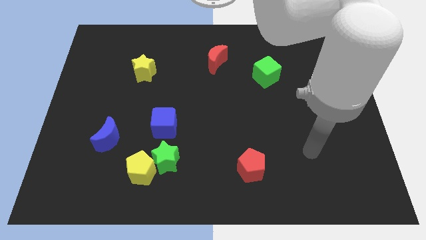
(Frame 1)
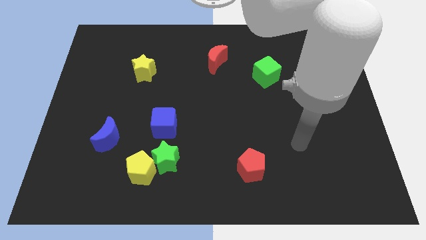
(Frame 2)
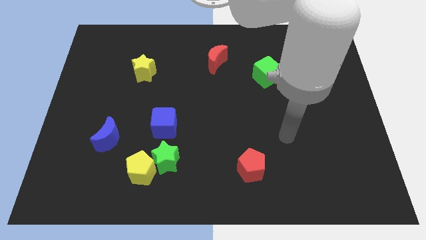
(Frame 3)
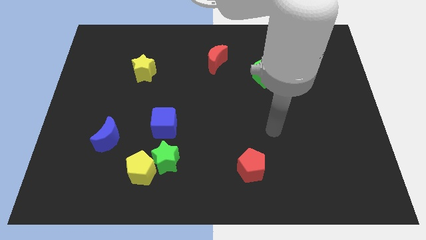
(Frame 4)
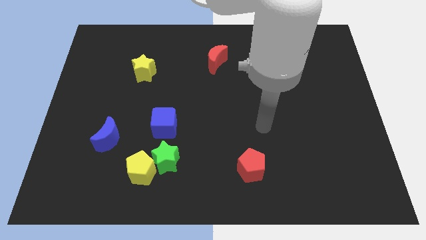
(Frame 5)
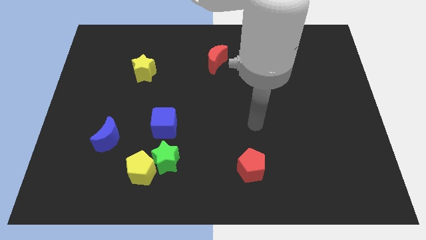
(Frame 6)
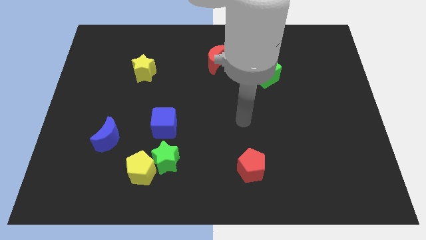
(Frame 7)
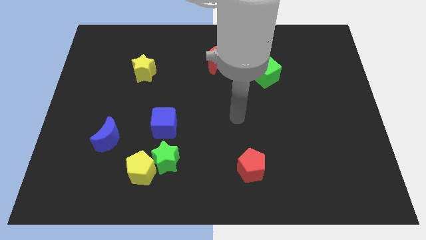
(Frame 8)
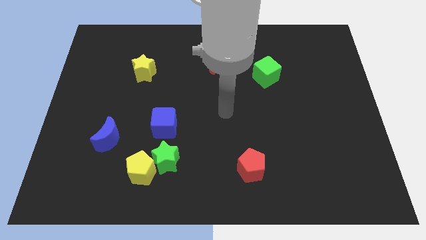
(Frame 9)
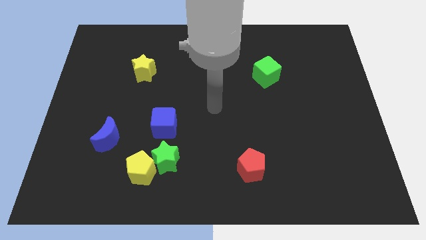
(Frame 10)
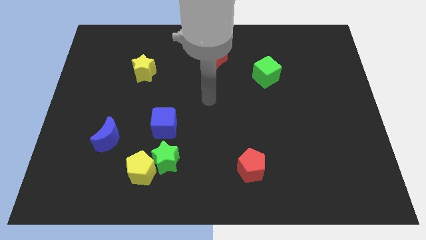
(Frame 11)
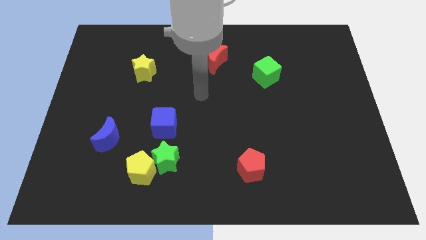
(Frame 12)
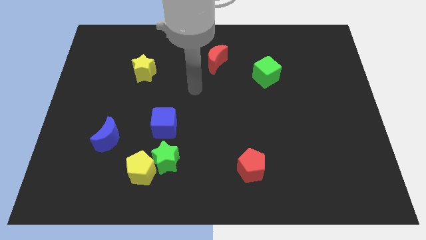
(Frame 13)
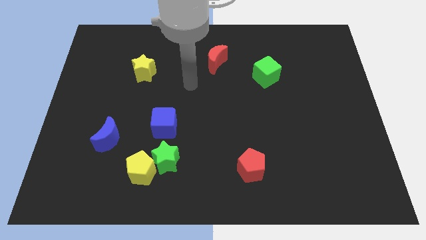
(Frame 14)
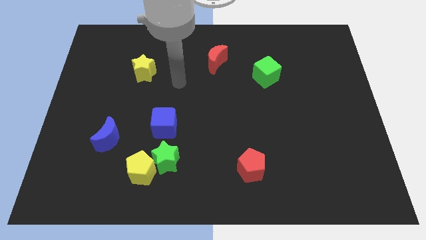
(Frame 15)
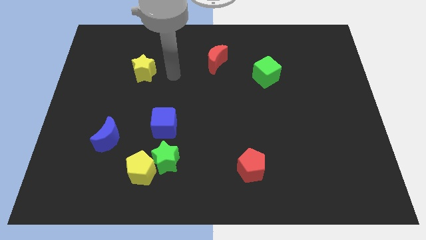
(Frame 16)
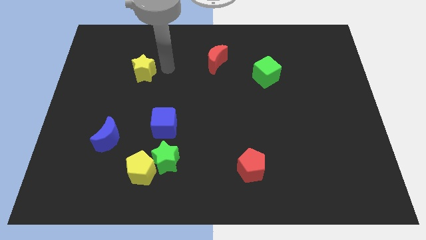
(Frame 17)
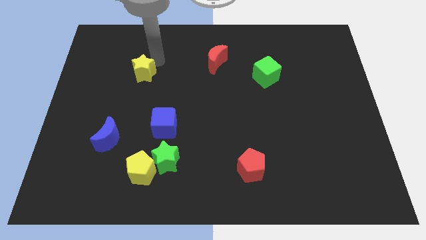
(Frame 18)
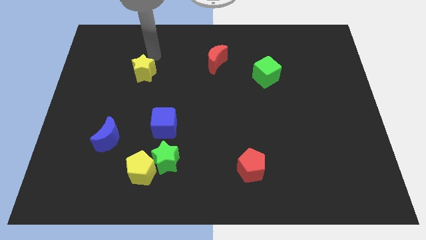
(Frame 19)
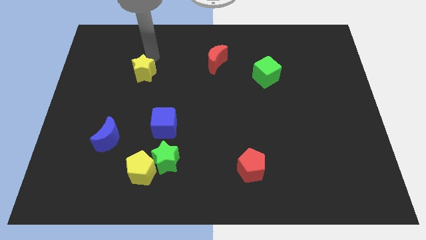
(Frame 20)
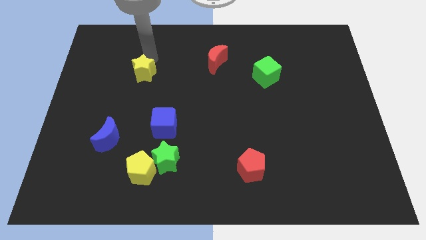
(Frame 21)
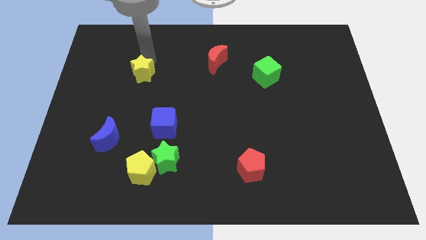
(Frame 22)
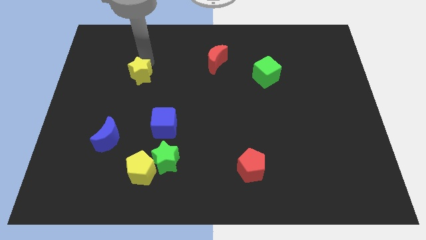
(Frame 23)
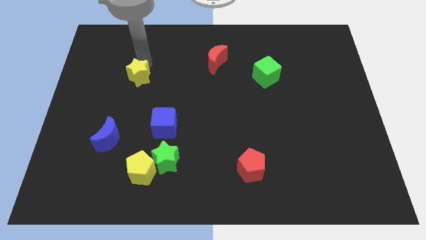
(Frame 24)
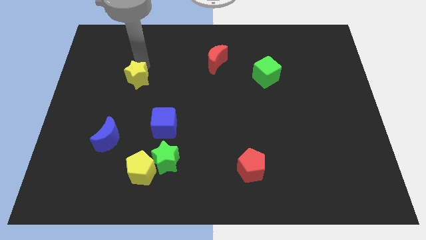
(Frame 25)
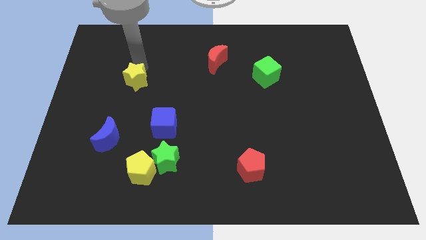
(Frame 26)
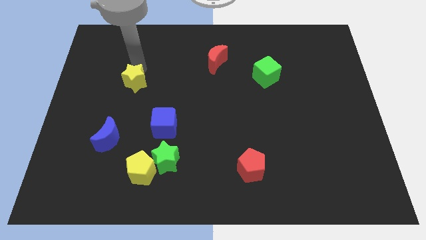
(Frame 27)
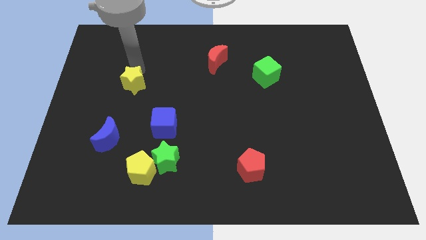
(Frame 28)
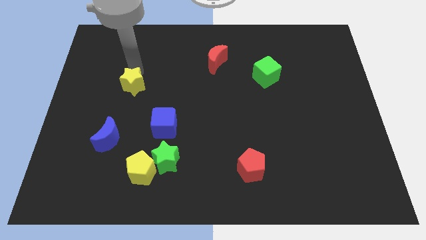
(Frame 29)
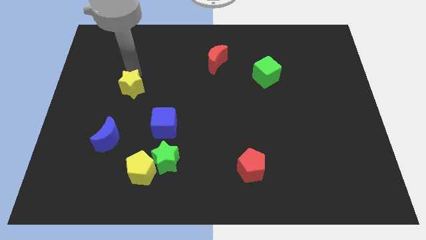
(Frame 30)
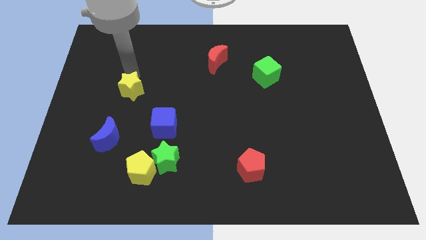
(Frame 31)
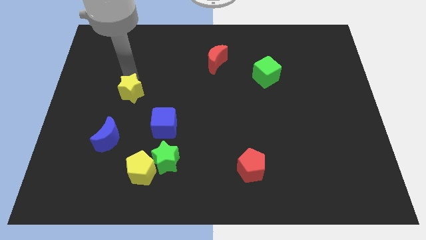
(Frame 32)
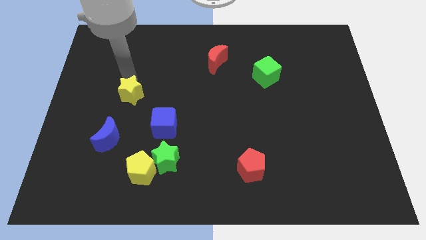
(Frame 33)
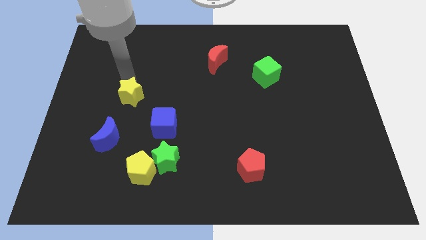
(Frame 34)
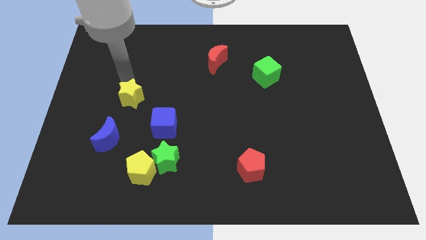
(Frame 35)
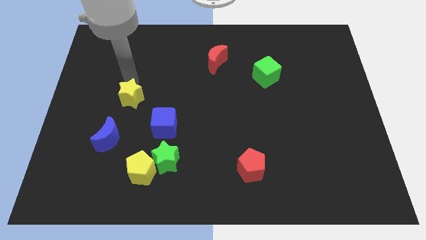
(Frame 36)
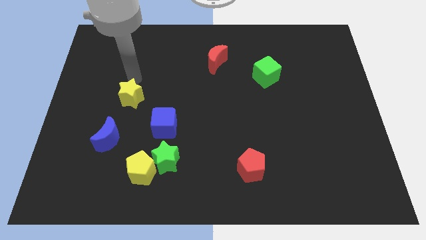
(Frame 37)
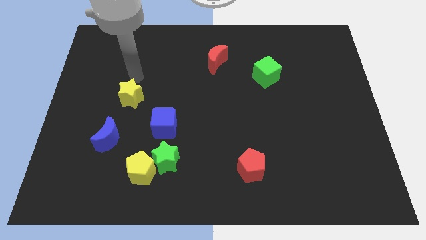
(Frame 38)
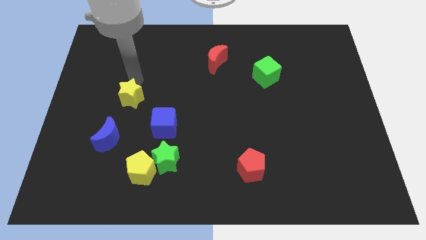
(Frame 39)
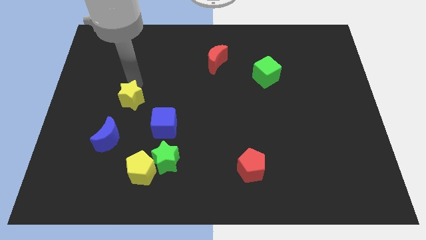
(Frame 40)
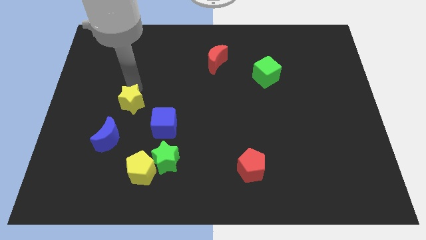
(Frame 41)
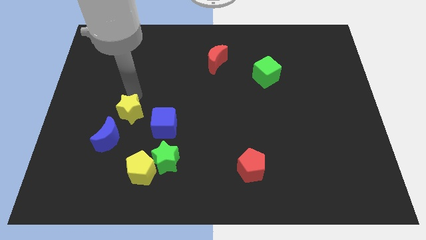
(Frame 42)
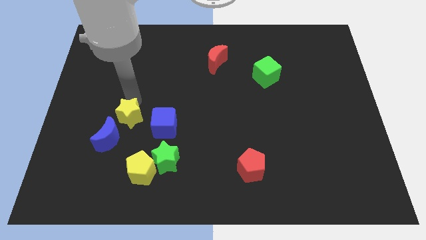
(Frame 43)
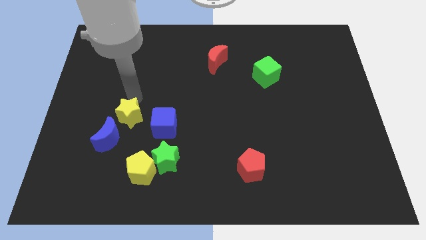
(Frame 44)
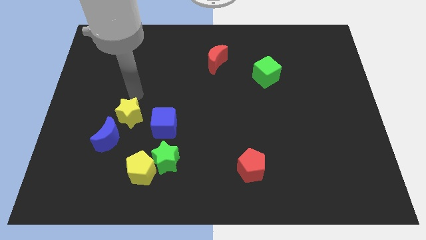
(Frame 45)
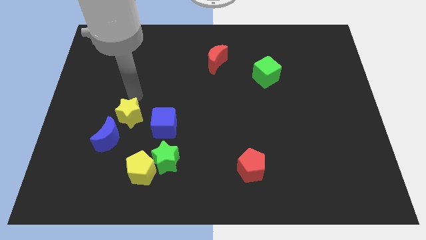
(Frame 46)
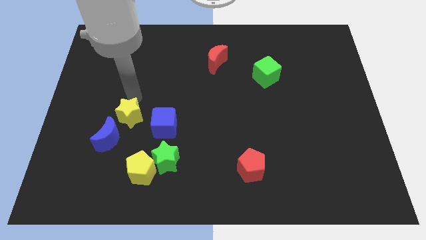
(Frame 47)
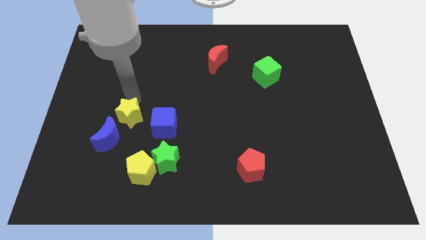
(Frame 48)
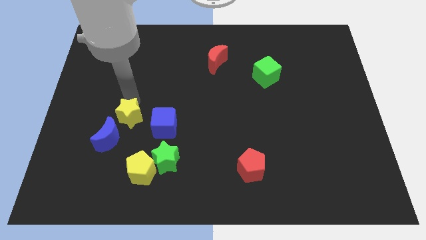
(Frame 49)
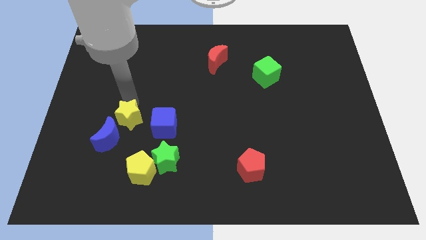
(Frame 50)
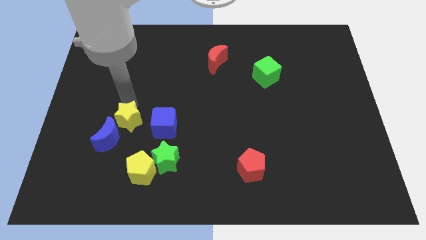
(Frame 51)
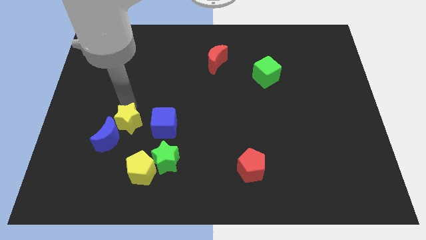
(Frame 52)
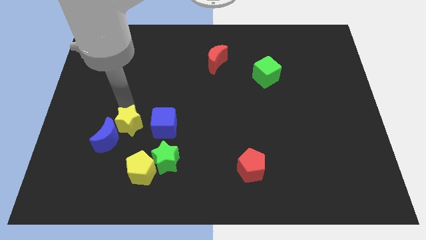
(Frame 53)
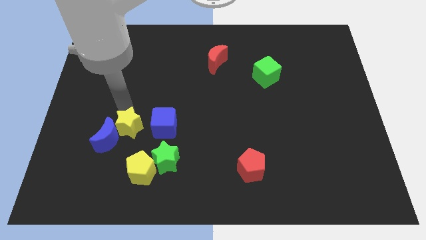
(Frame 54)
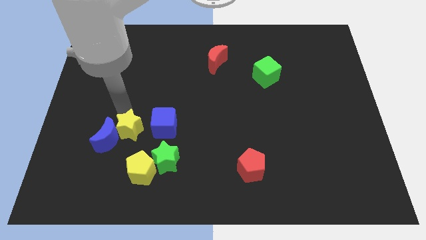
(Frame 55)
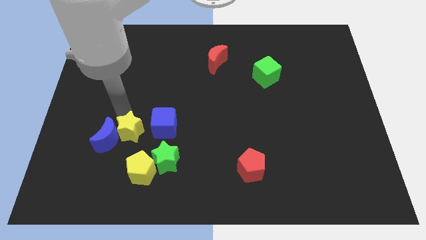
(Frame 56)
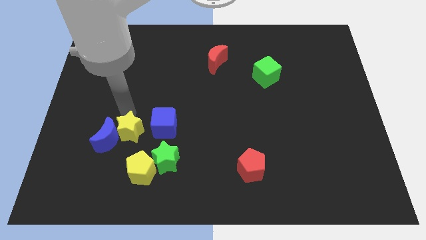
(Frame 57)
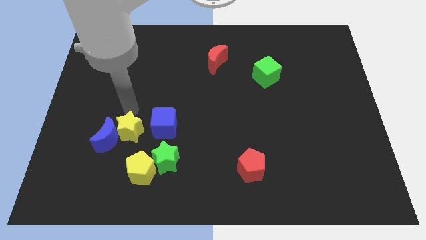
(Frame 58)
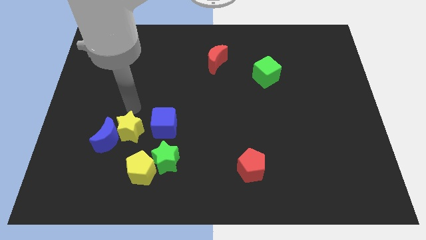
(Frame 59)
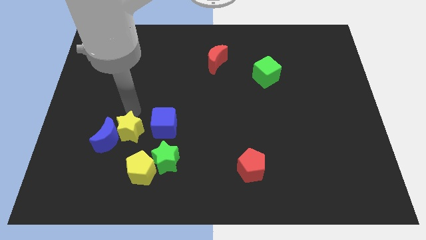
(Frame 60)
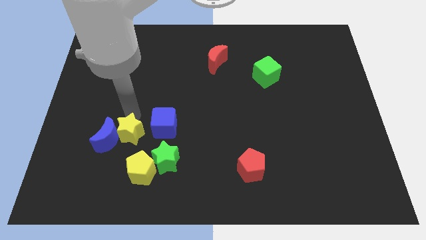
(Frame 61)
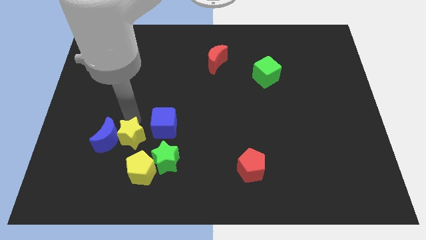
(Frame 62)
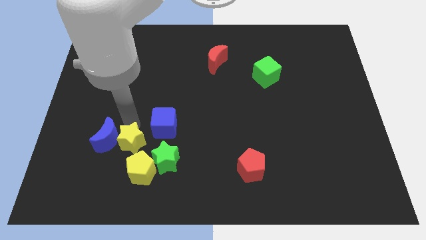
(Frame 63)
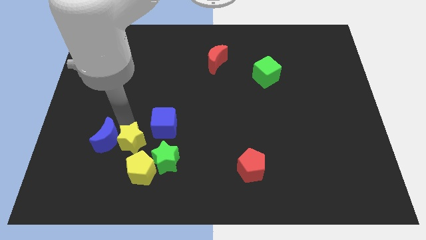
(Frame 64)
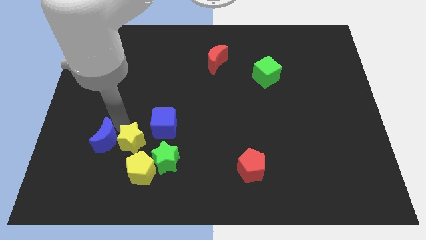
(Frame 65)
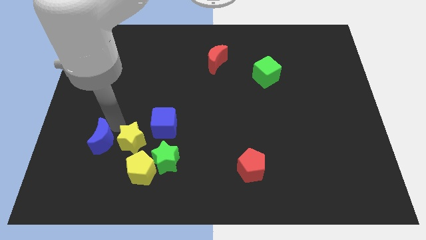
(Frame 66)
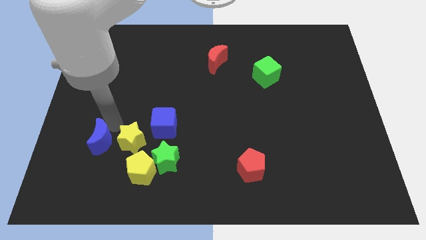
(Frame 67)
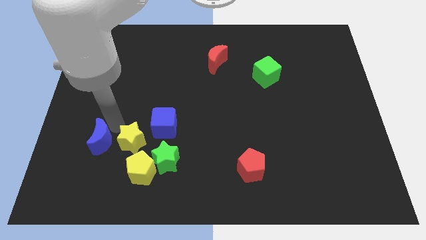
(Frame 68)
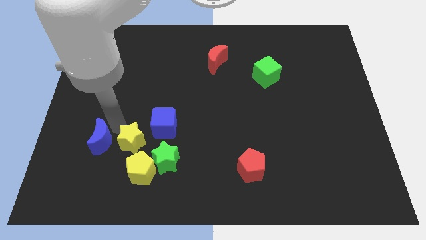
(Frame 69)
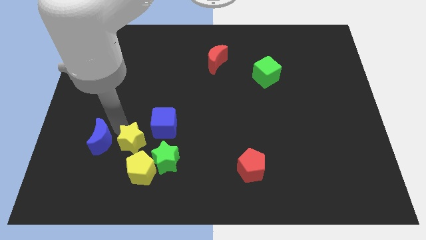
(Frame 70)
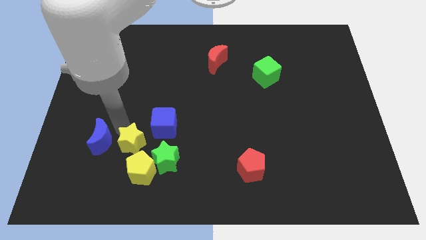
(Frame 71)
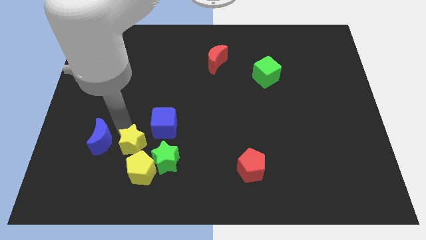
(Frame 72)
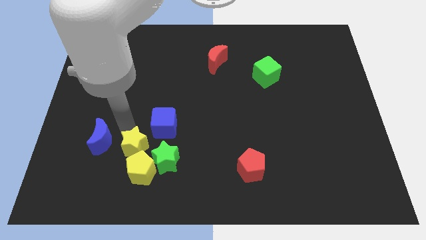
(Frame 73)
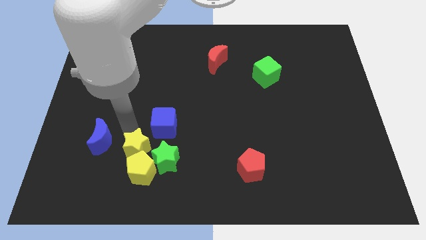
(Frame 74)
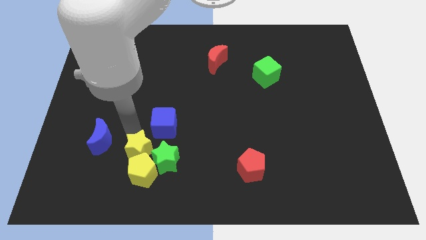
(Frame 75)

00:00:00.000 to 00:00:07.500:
push the yellow star close to the green star
